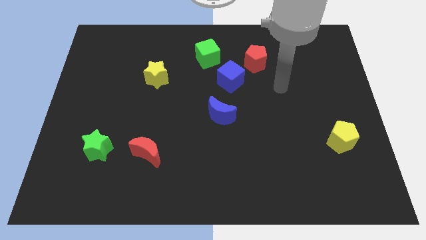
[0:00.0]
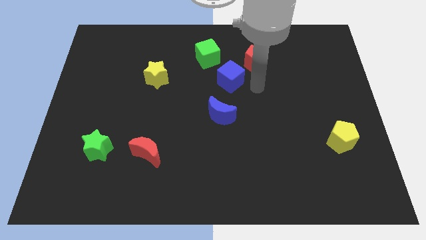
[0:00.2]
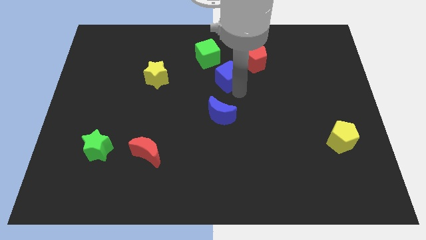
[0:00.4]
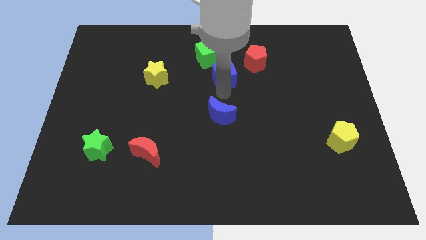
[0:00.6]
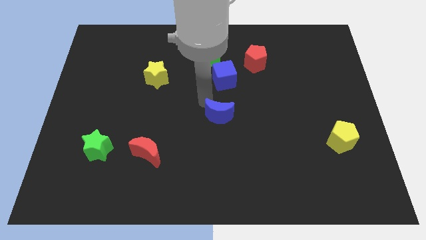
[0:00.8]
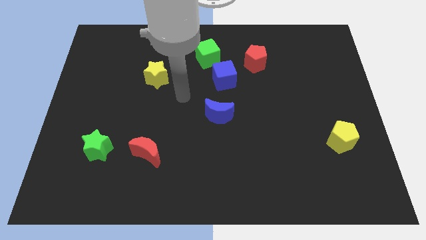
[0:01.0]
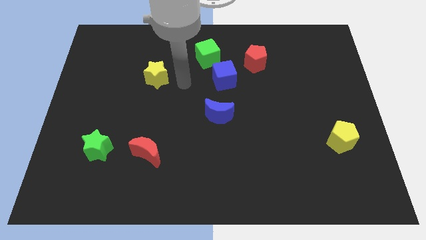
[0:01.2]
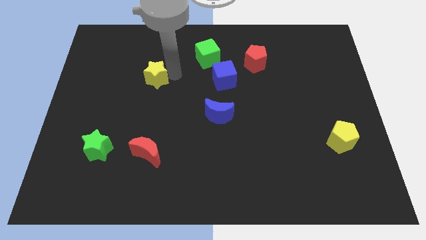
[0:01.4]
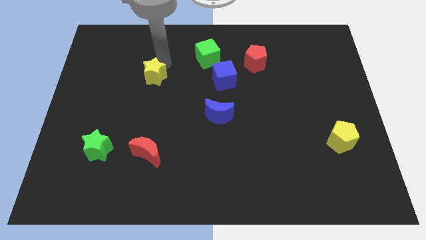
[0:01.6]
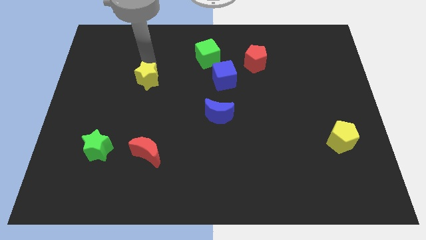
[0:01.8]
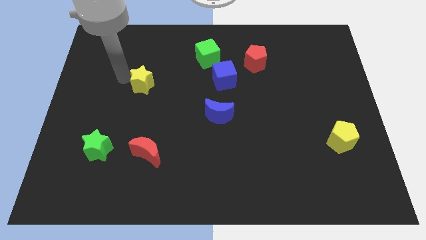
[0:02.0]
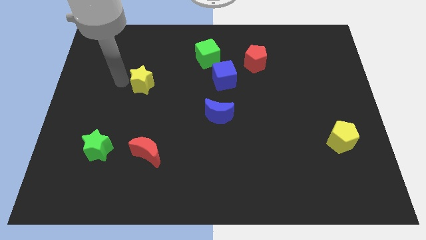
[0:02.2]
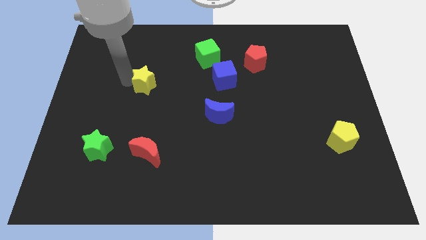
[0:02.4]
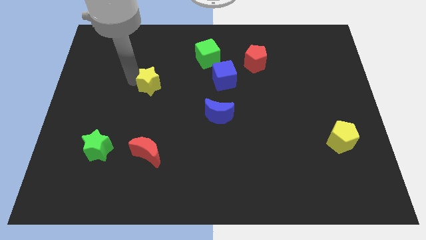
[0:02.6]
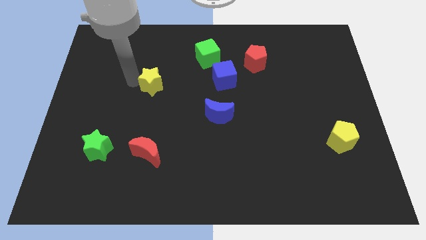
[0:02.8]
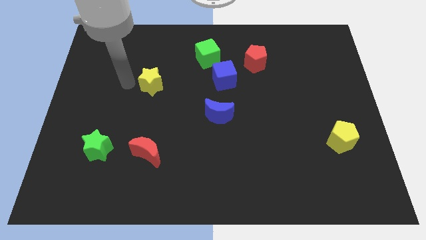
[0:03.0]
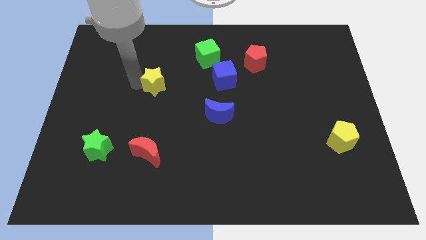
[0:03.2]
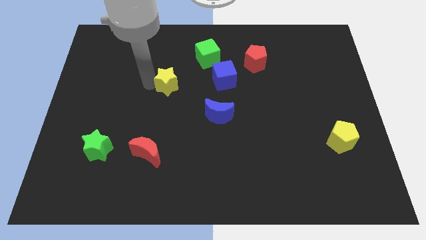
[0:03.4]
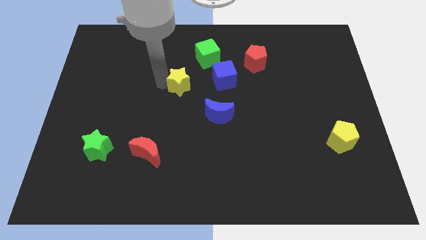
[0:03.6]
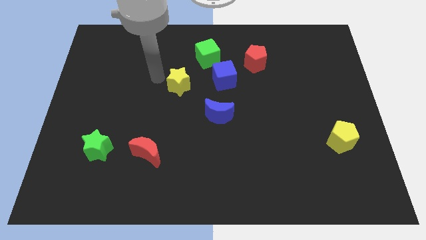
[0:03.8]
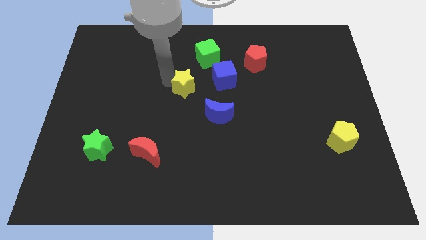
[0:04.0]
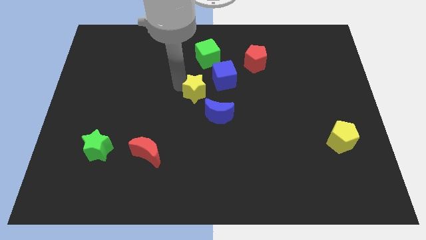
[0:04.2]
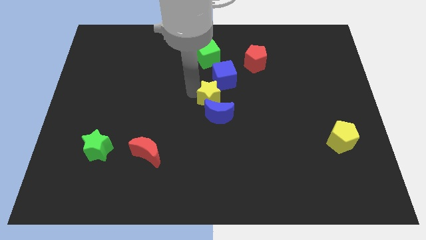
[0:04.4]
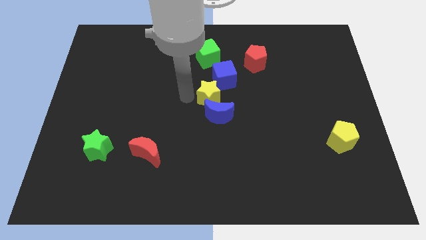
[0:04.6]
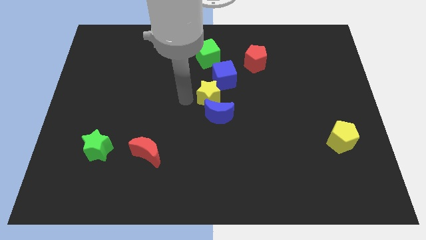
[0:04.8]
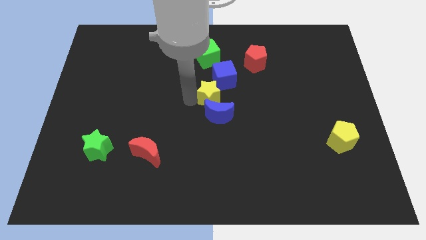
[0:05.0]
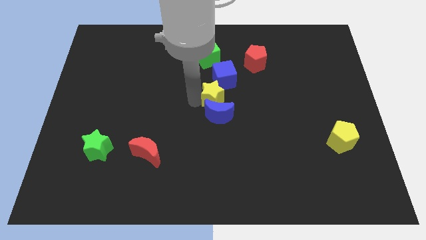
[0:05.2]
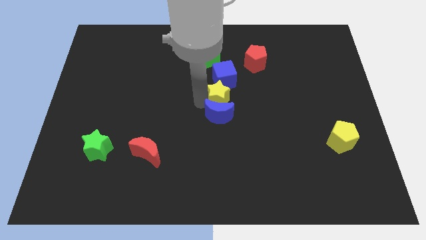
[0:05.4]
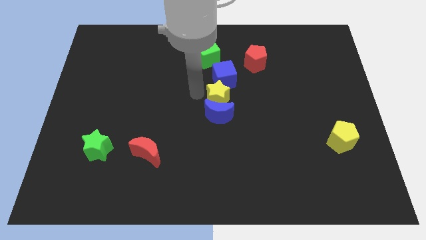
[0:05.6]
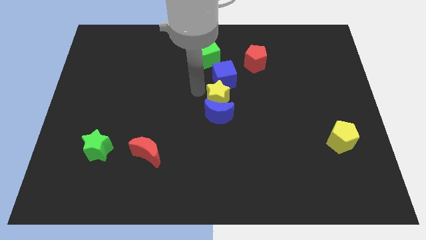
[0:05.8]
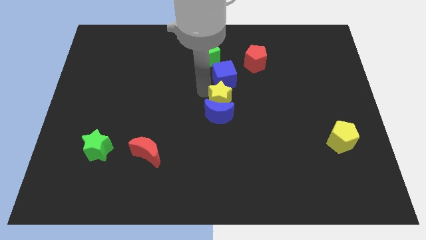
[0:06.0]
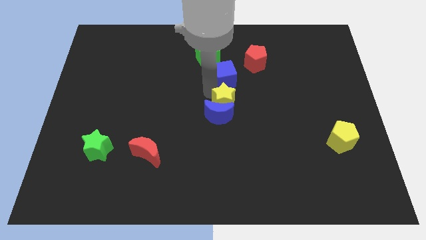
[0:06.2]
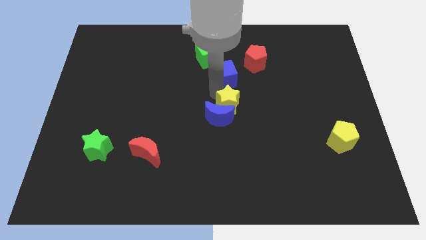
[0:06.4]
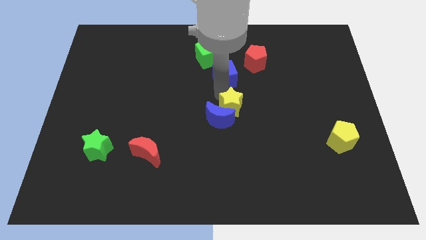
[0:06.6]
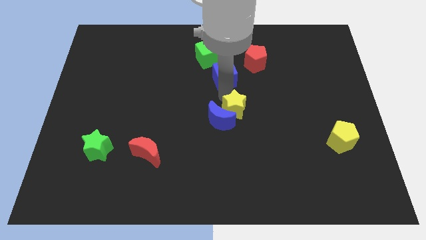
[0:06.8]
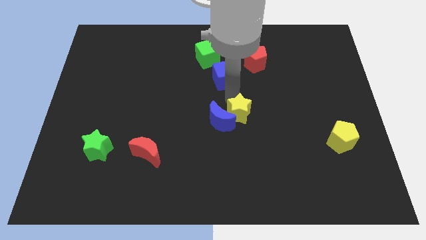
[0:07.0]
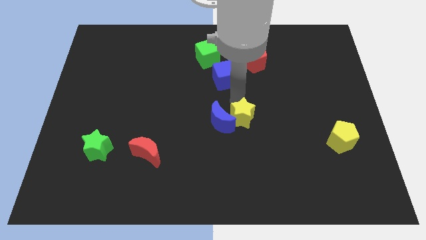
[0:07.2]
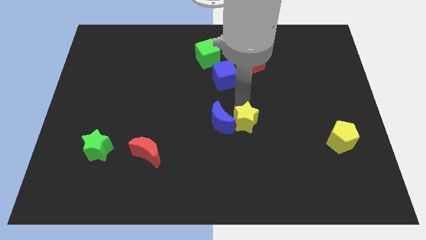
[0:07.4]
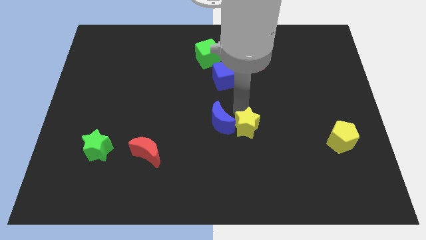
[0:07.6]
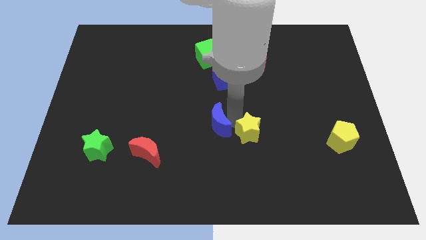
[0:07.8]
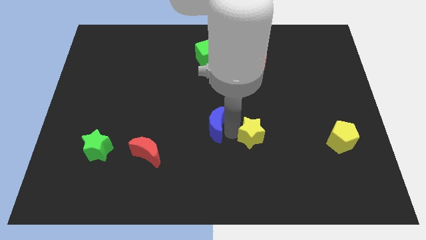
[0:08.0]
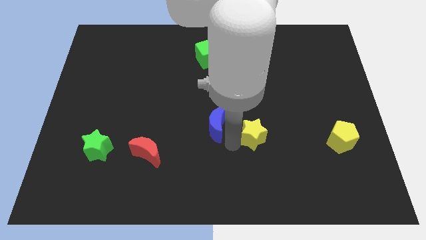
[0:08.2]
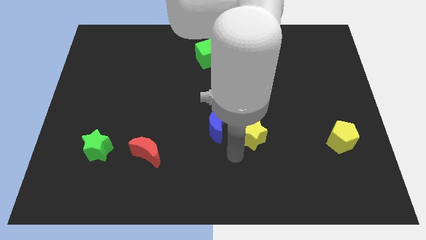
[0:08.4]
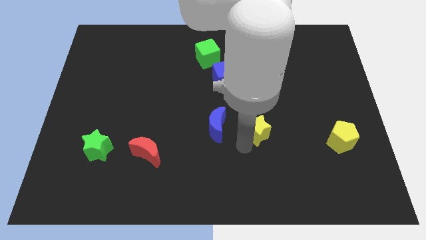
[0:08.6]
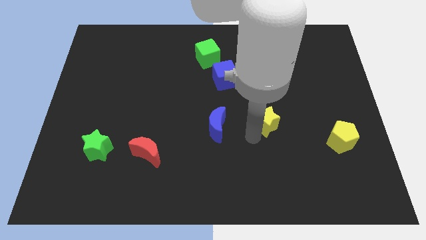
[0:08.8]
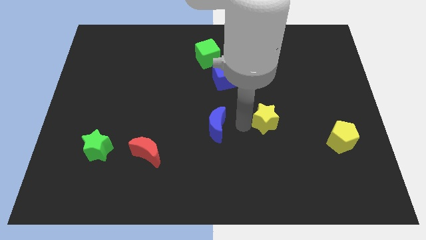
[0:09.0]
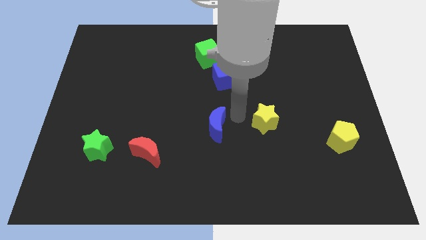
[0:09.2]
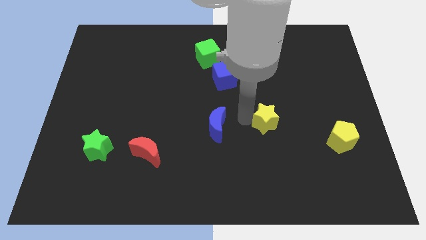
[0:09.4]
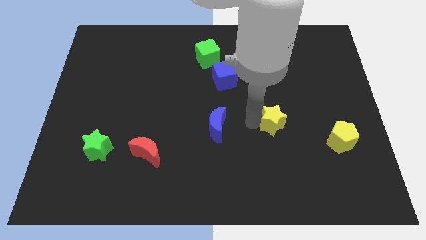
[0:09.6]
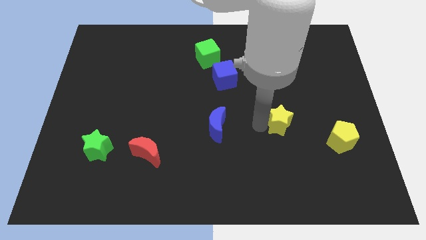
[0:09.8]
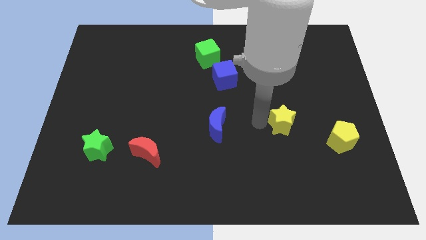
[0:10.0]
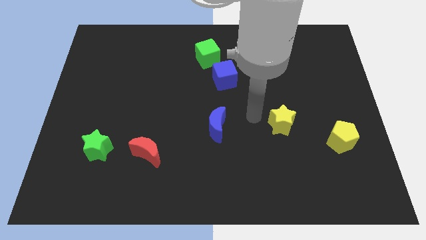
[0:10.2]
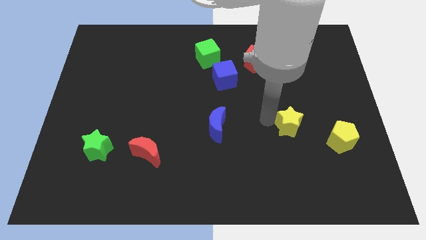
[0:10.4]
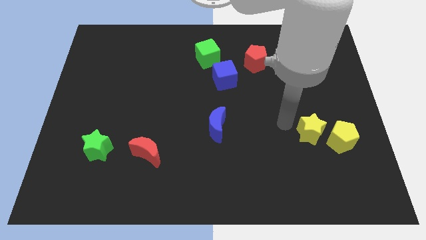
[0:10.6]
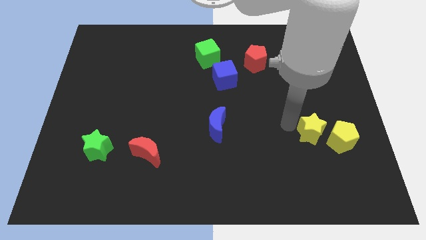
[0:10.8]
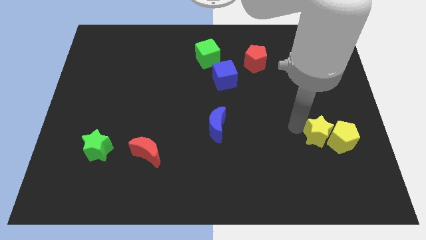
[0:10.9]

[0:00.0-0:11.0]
slide the yellow star to the yellow pentagon
